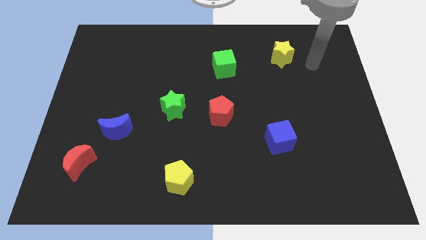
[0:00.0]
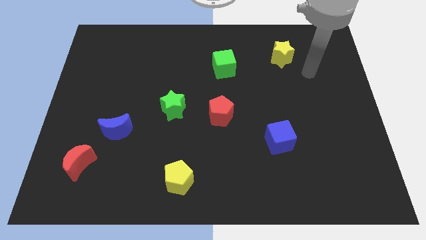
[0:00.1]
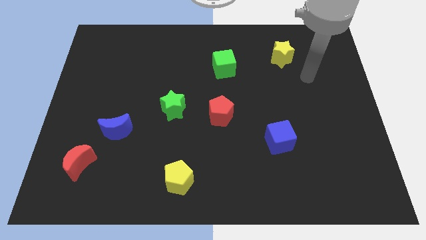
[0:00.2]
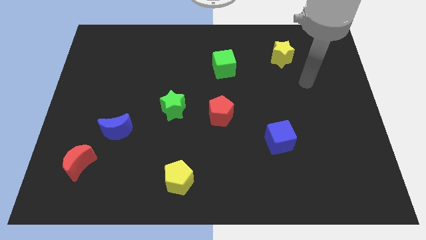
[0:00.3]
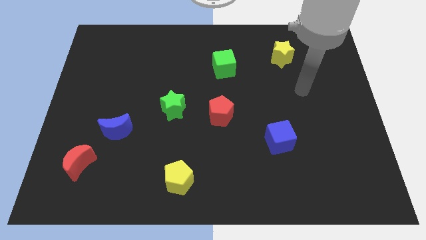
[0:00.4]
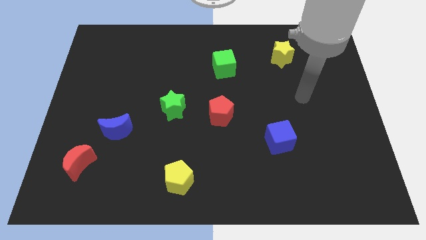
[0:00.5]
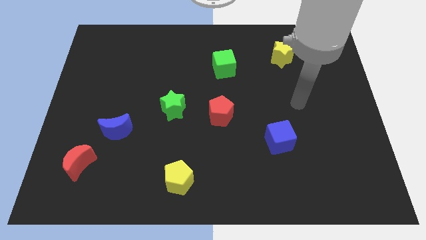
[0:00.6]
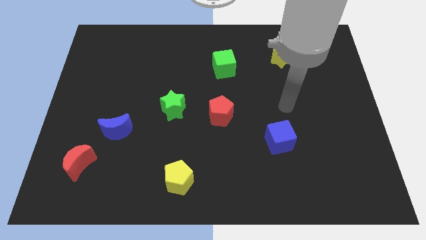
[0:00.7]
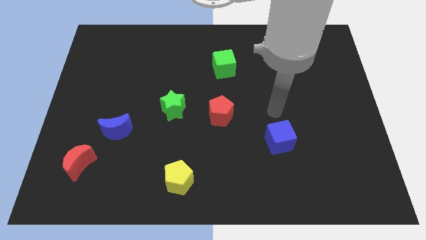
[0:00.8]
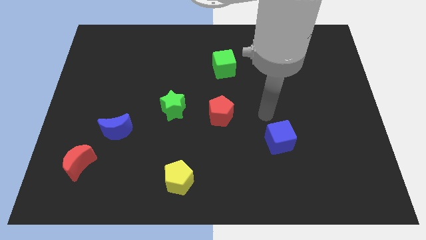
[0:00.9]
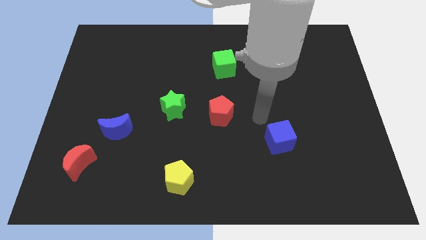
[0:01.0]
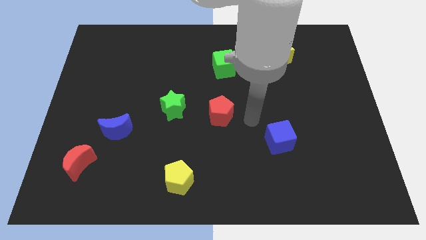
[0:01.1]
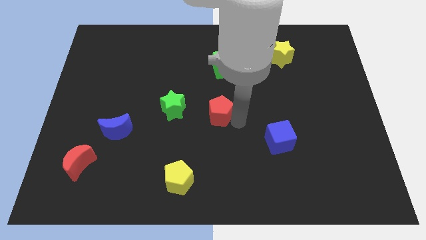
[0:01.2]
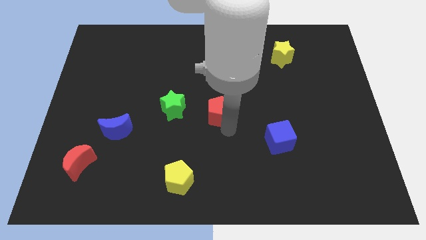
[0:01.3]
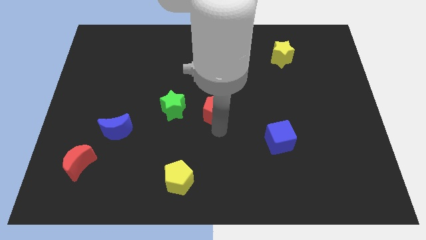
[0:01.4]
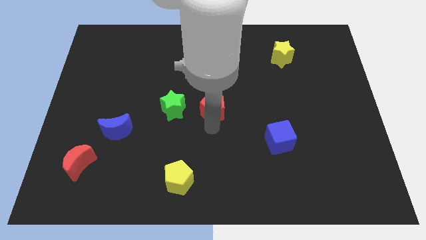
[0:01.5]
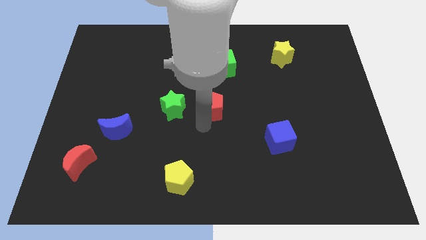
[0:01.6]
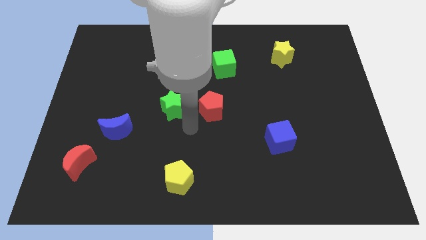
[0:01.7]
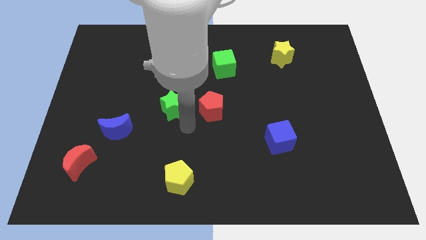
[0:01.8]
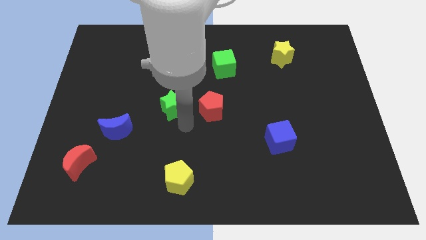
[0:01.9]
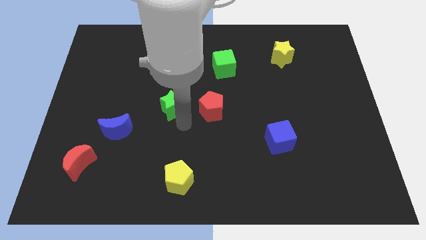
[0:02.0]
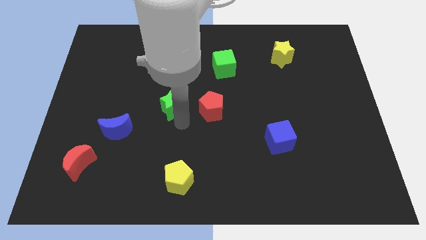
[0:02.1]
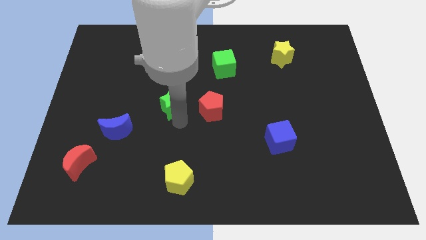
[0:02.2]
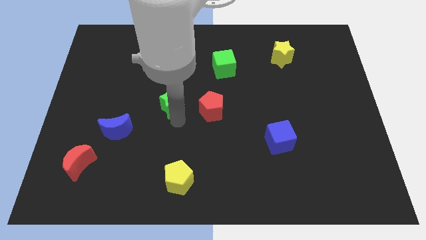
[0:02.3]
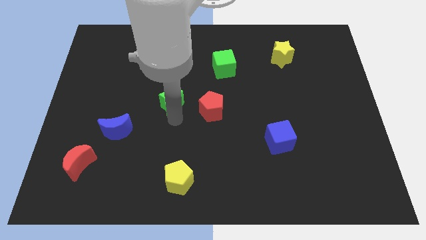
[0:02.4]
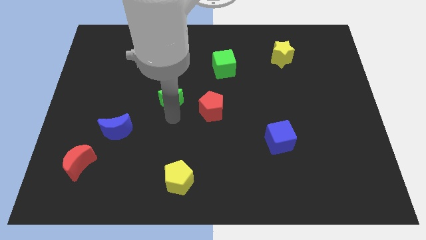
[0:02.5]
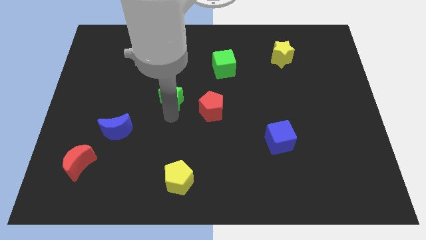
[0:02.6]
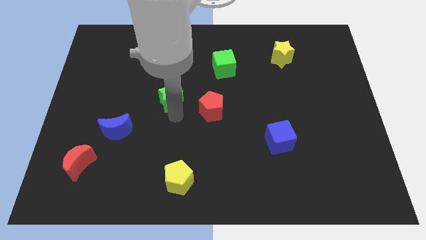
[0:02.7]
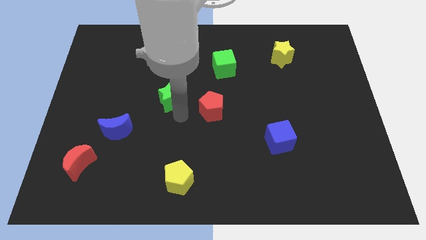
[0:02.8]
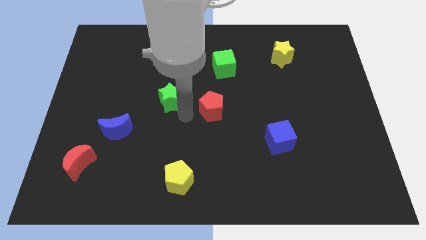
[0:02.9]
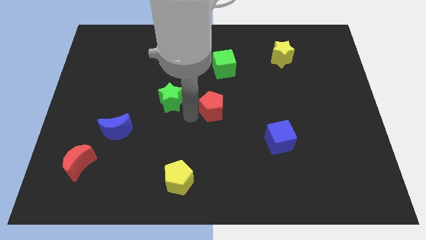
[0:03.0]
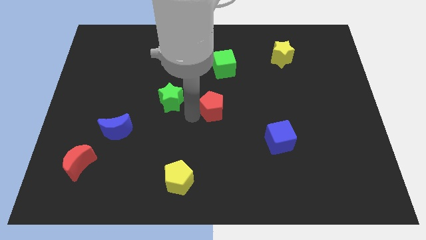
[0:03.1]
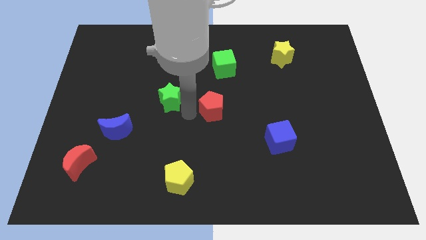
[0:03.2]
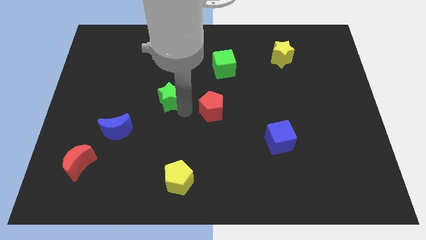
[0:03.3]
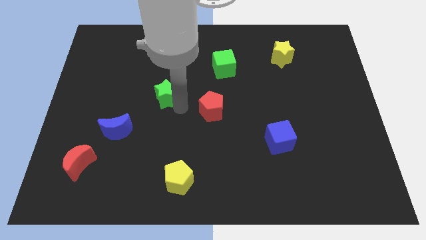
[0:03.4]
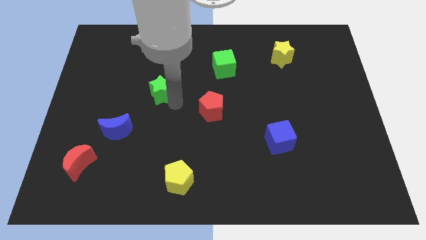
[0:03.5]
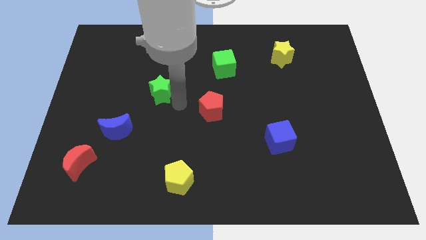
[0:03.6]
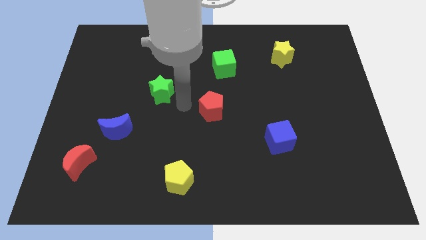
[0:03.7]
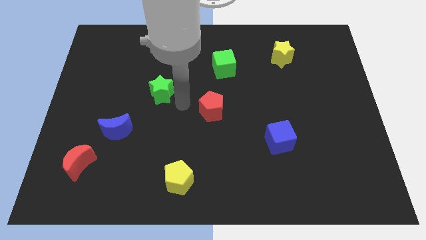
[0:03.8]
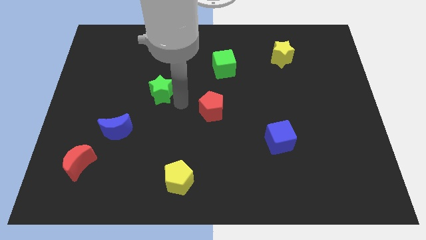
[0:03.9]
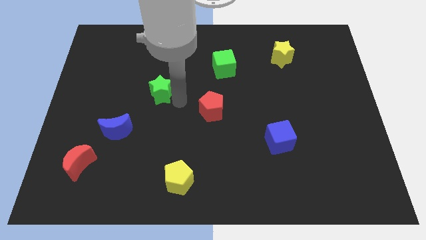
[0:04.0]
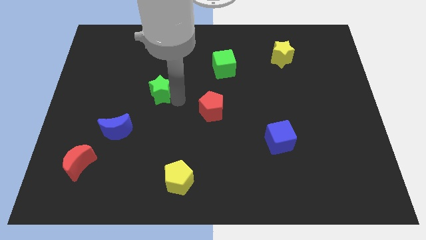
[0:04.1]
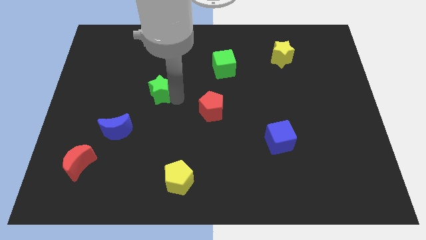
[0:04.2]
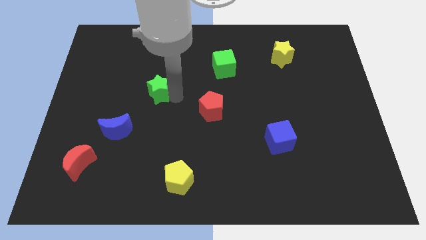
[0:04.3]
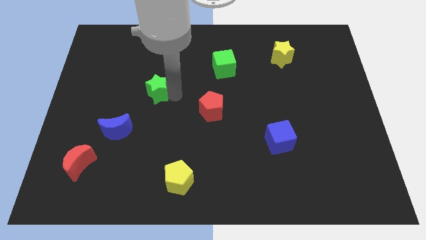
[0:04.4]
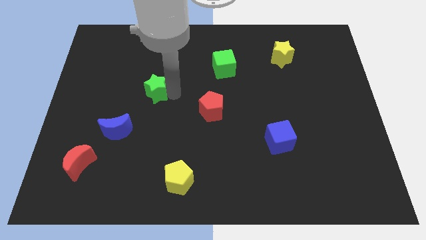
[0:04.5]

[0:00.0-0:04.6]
slide the green star up and left diagonally a bit

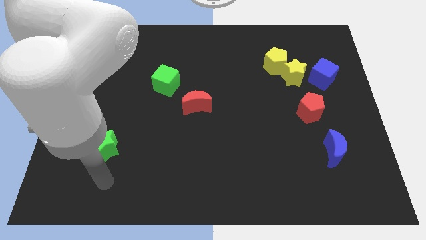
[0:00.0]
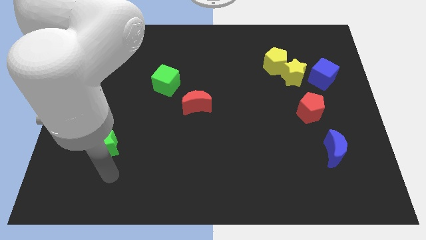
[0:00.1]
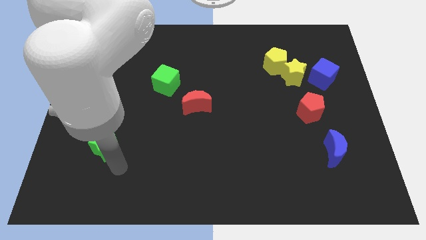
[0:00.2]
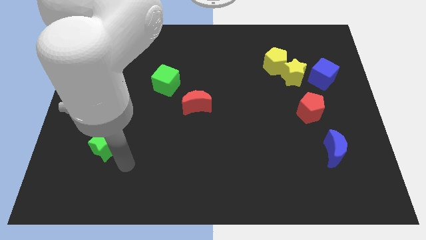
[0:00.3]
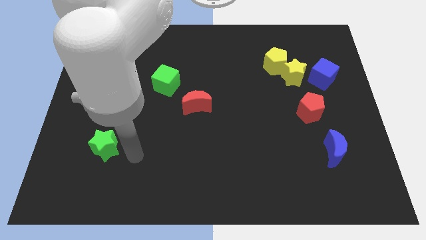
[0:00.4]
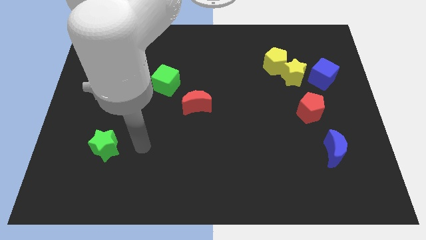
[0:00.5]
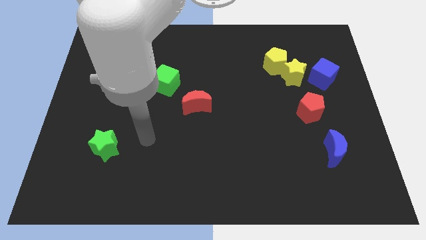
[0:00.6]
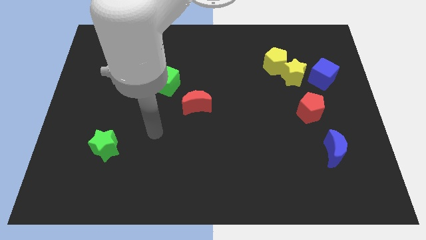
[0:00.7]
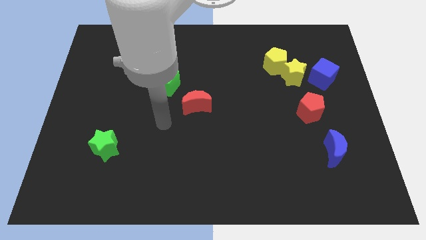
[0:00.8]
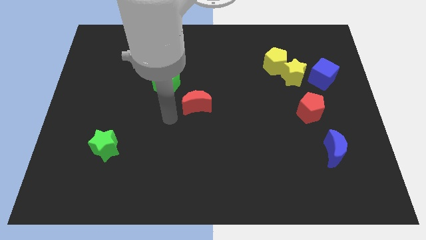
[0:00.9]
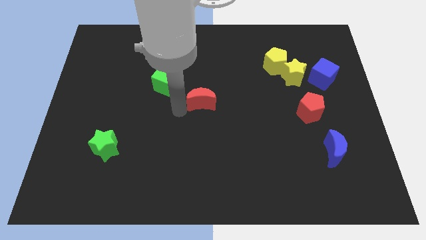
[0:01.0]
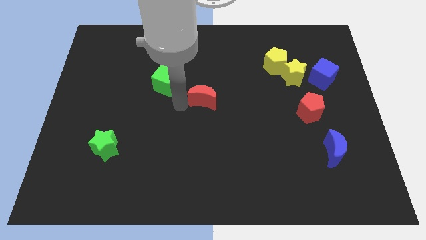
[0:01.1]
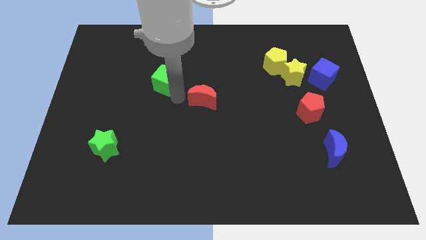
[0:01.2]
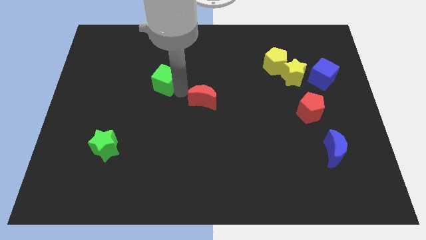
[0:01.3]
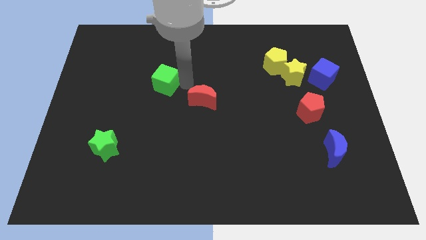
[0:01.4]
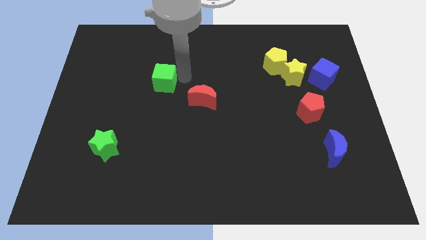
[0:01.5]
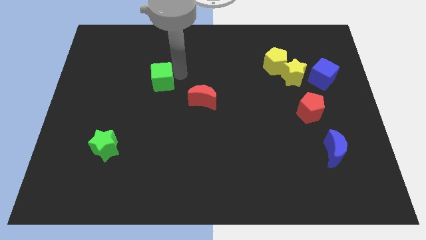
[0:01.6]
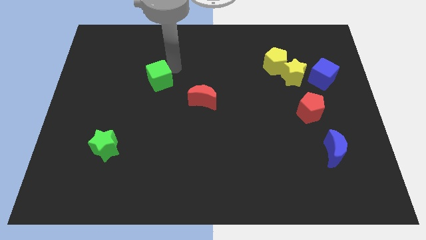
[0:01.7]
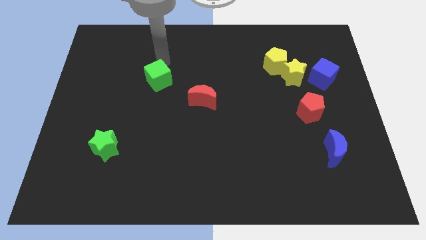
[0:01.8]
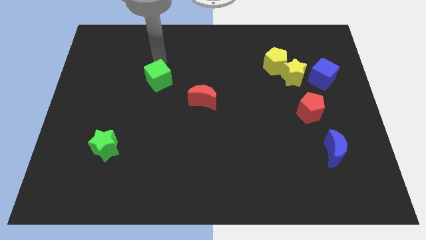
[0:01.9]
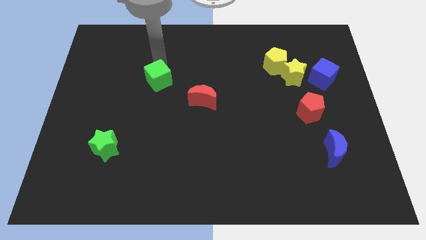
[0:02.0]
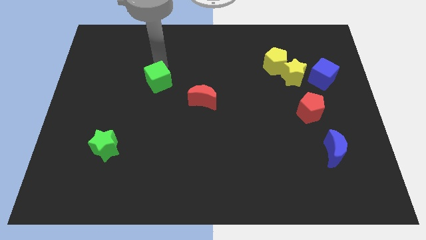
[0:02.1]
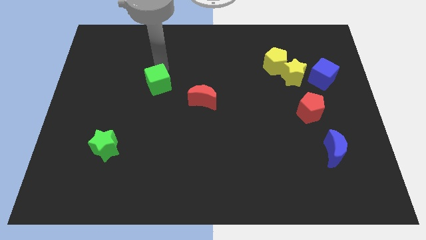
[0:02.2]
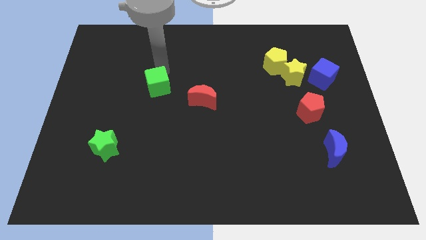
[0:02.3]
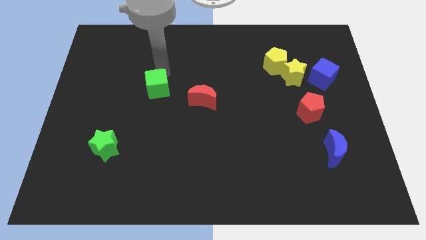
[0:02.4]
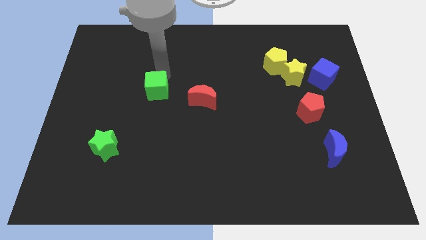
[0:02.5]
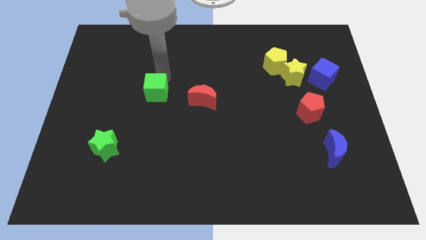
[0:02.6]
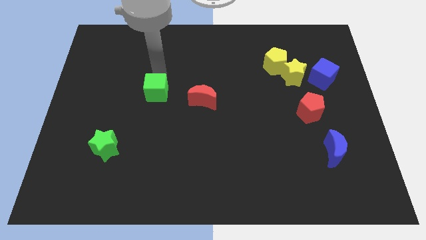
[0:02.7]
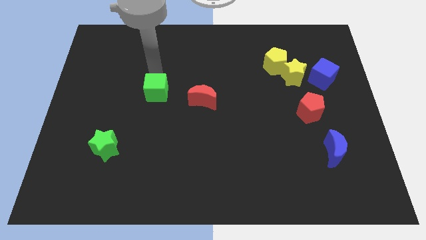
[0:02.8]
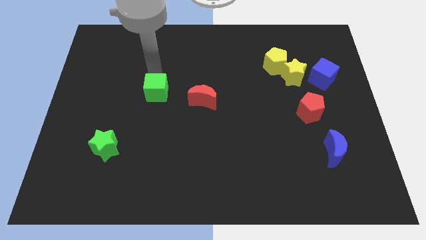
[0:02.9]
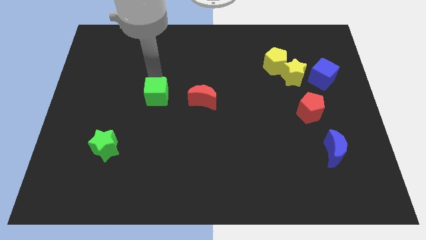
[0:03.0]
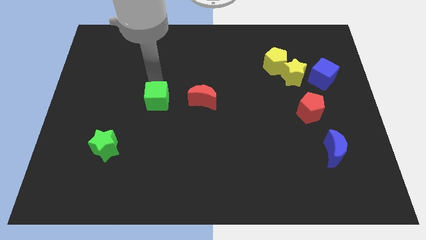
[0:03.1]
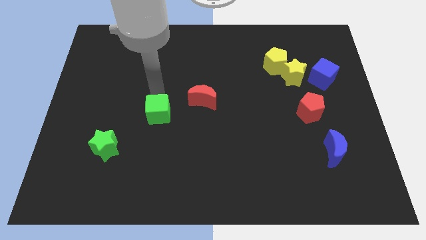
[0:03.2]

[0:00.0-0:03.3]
move the green cube down a little bit
